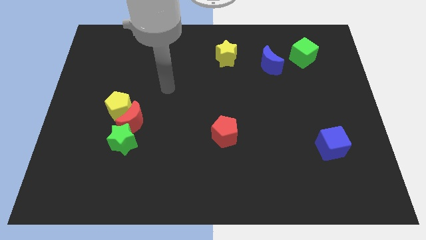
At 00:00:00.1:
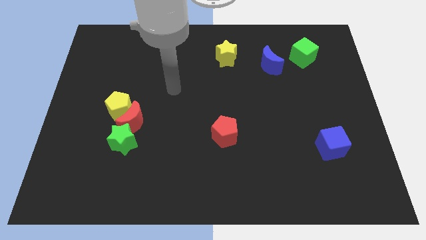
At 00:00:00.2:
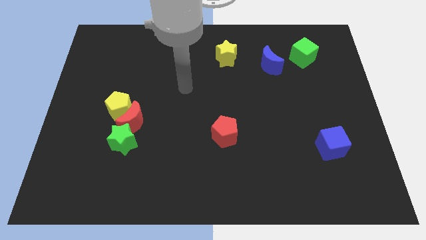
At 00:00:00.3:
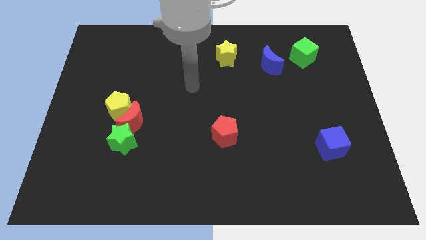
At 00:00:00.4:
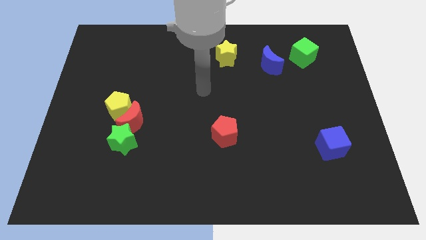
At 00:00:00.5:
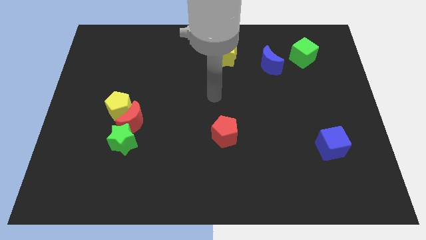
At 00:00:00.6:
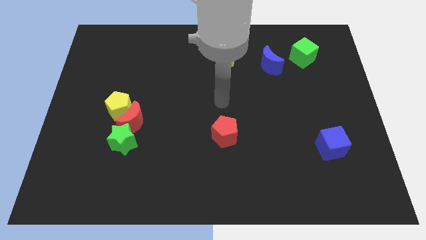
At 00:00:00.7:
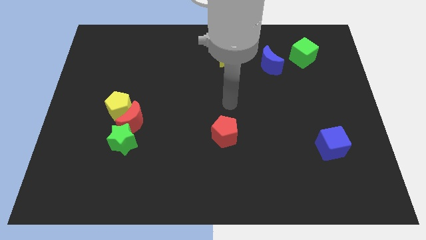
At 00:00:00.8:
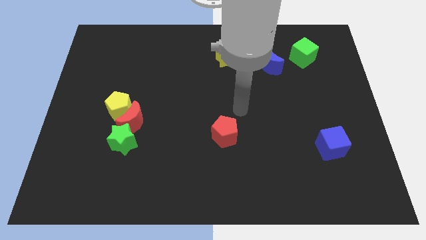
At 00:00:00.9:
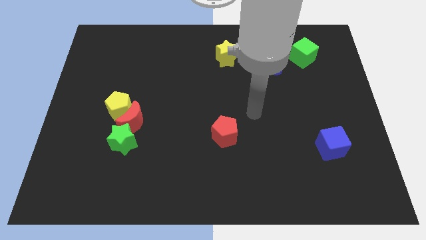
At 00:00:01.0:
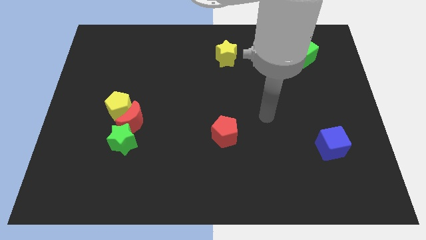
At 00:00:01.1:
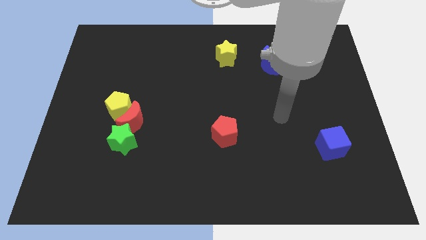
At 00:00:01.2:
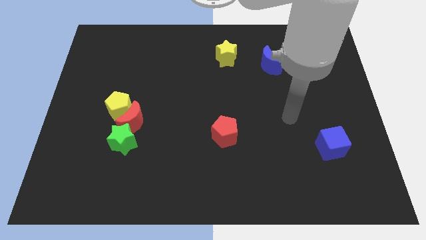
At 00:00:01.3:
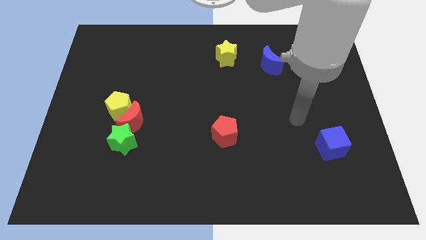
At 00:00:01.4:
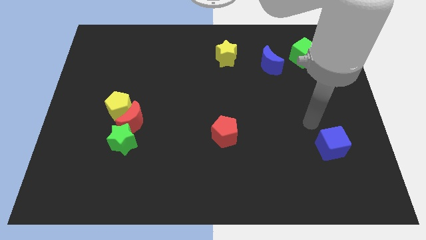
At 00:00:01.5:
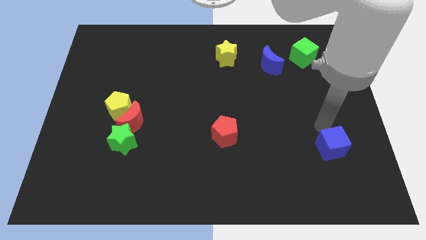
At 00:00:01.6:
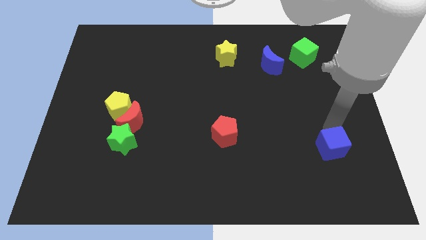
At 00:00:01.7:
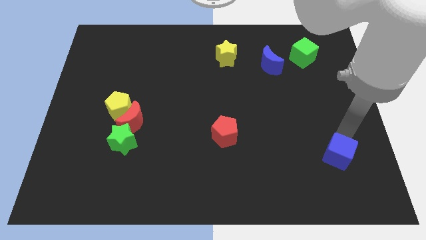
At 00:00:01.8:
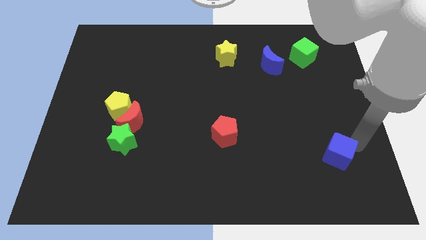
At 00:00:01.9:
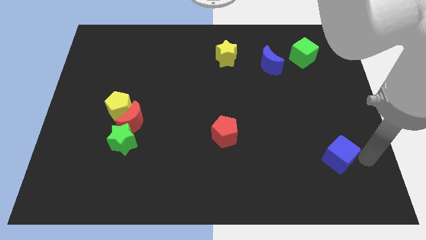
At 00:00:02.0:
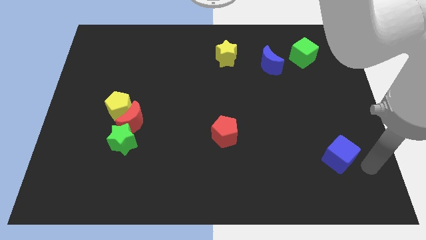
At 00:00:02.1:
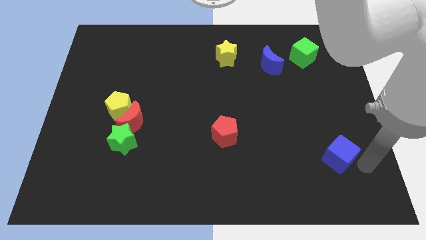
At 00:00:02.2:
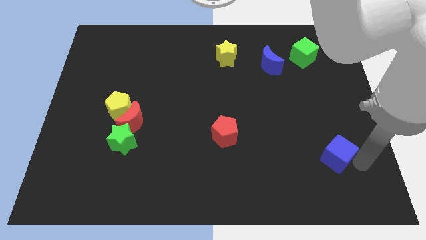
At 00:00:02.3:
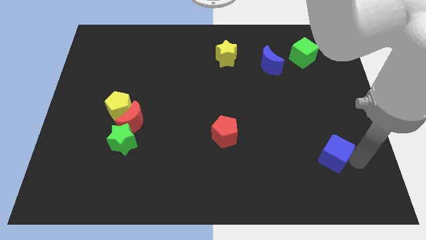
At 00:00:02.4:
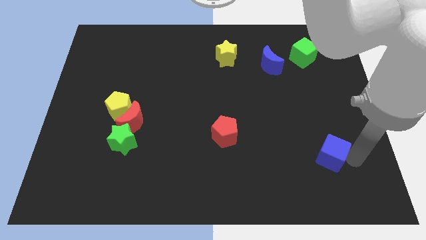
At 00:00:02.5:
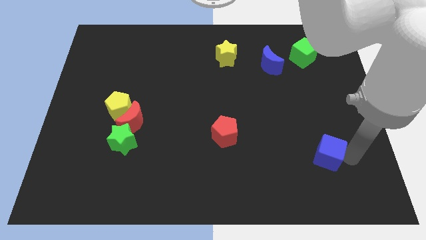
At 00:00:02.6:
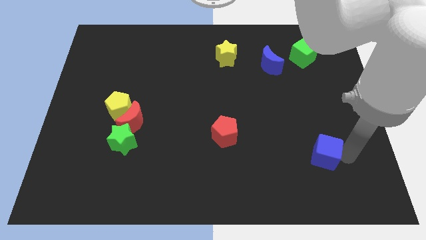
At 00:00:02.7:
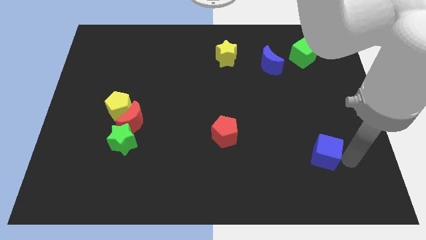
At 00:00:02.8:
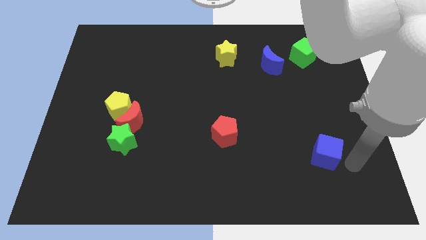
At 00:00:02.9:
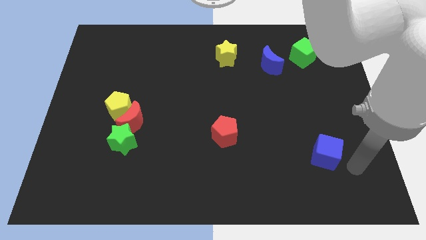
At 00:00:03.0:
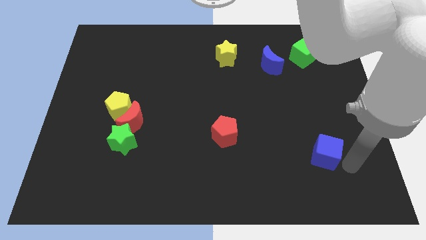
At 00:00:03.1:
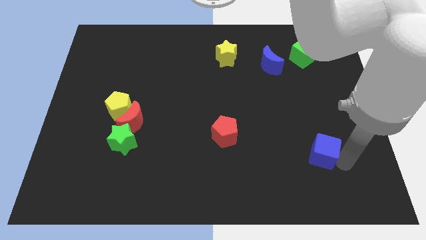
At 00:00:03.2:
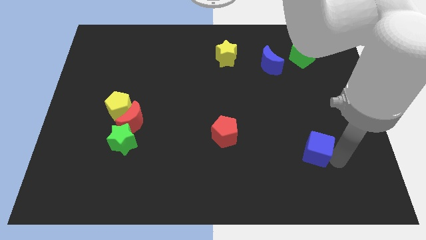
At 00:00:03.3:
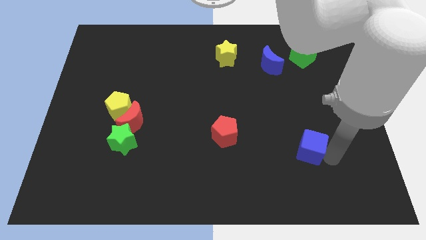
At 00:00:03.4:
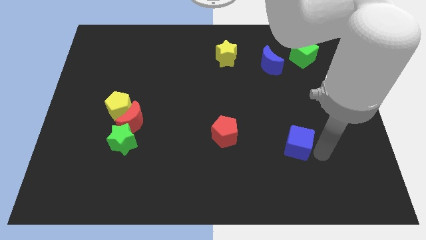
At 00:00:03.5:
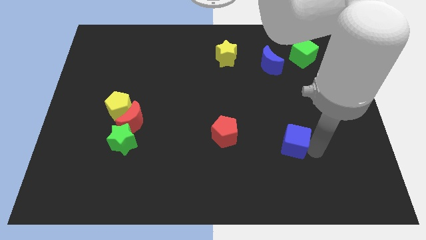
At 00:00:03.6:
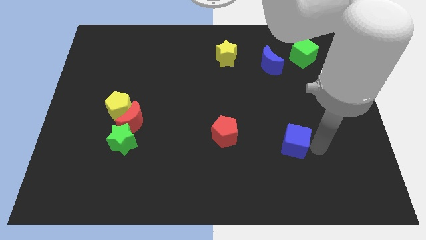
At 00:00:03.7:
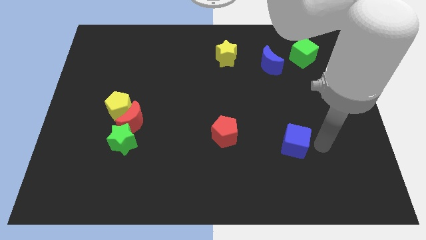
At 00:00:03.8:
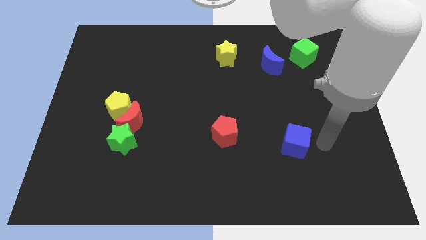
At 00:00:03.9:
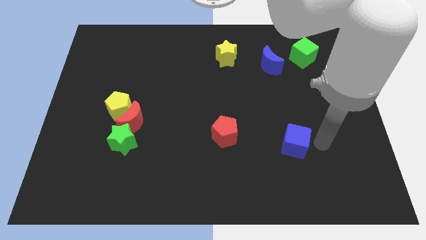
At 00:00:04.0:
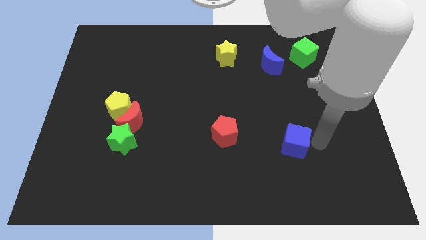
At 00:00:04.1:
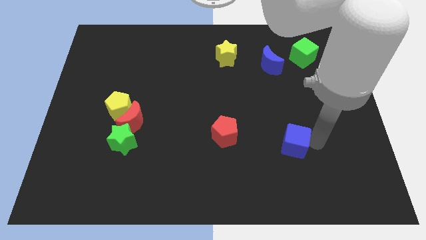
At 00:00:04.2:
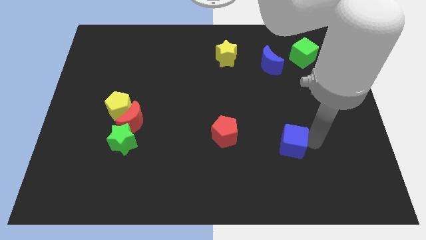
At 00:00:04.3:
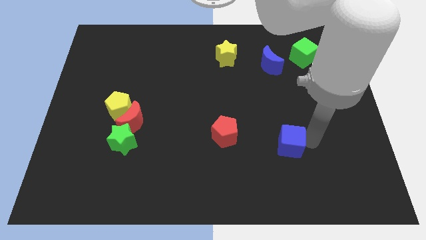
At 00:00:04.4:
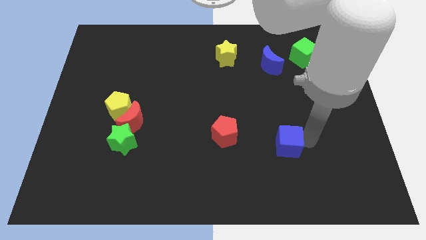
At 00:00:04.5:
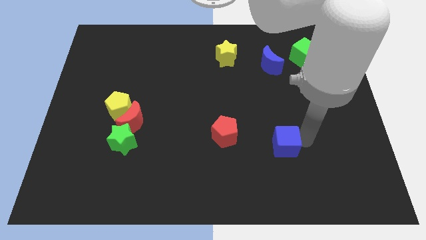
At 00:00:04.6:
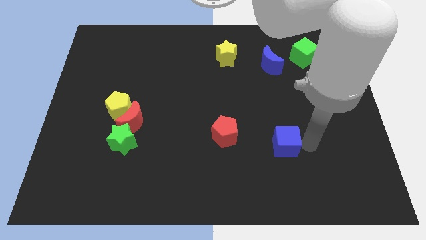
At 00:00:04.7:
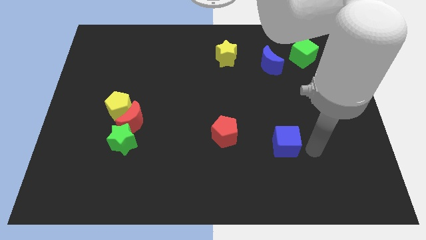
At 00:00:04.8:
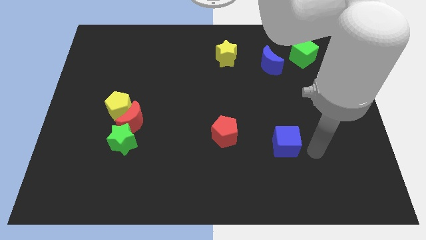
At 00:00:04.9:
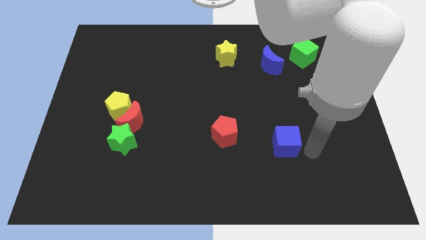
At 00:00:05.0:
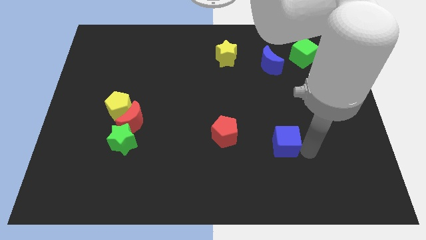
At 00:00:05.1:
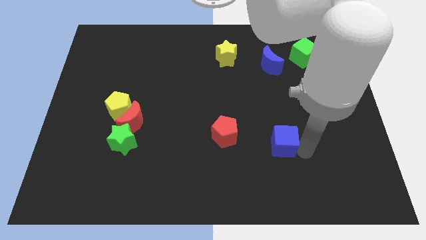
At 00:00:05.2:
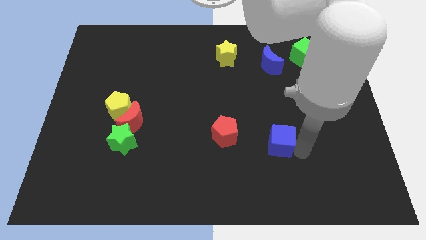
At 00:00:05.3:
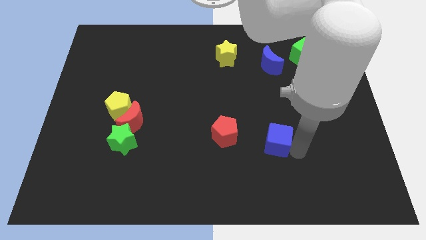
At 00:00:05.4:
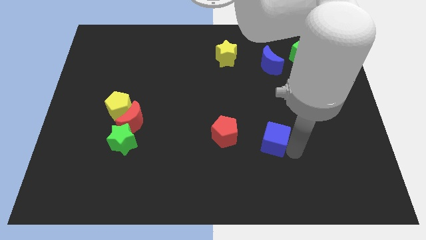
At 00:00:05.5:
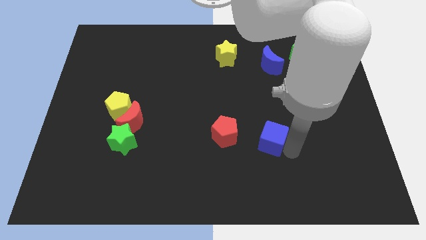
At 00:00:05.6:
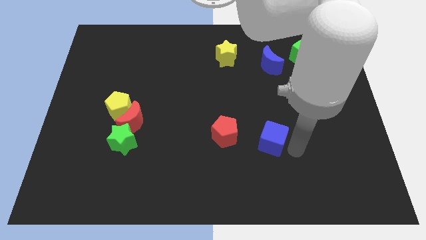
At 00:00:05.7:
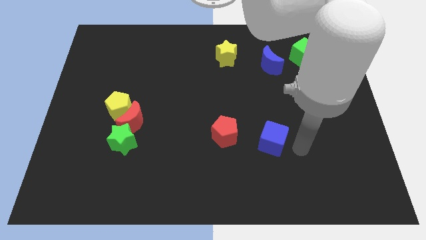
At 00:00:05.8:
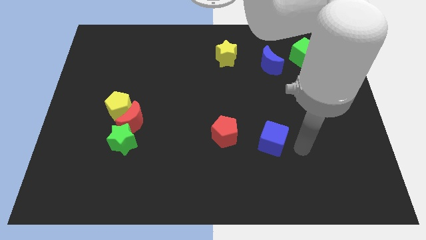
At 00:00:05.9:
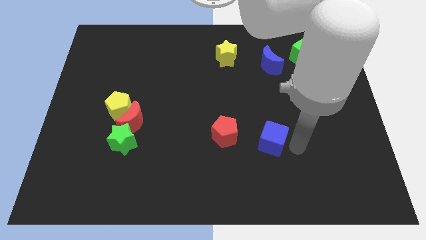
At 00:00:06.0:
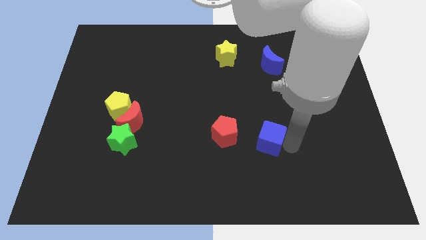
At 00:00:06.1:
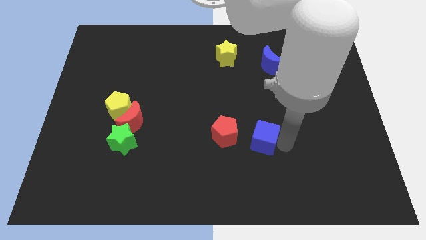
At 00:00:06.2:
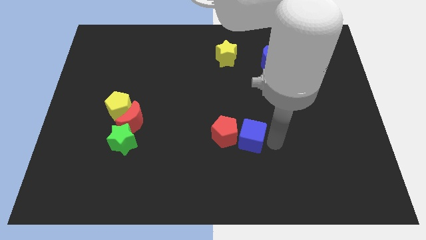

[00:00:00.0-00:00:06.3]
push the blue cube close to the red pentagon
